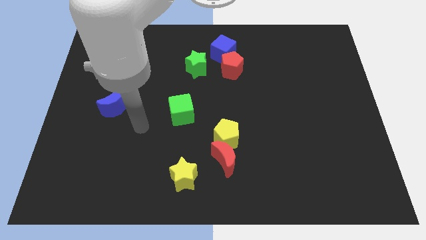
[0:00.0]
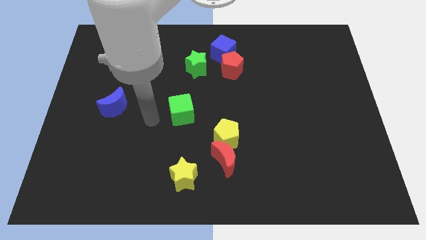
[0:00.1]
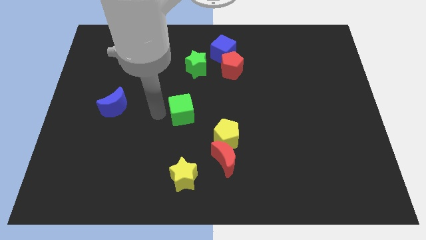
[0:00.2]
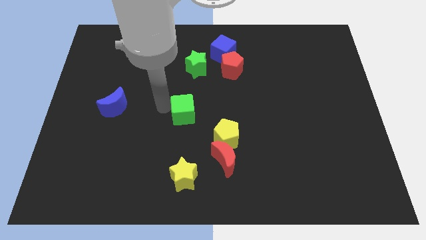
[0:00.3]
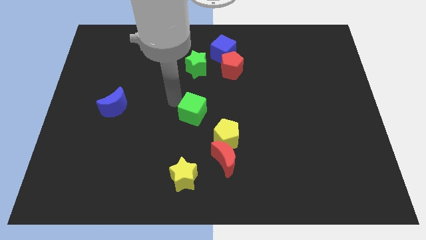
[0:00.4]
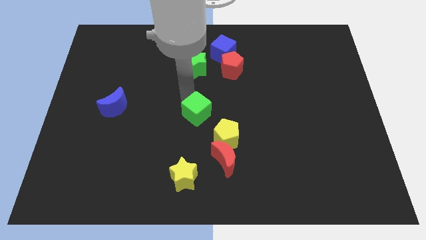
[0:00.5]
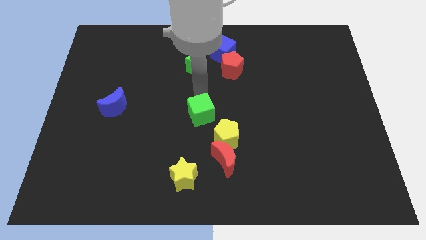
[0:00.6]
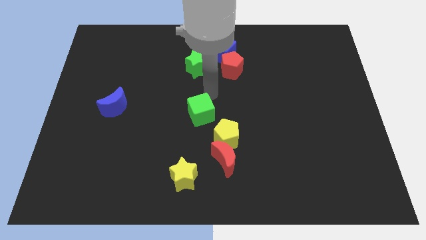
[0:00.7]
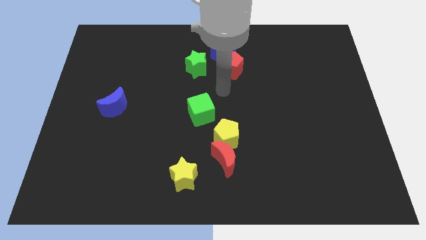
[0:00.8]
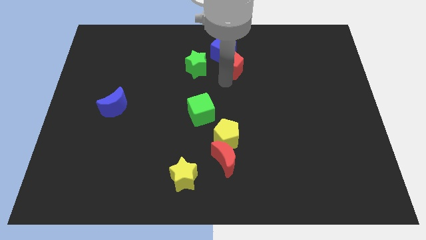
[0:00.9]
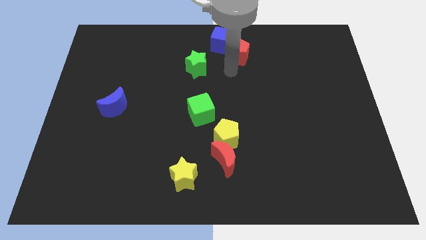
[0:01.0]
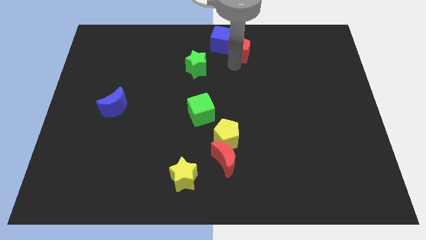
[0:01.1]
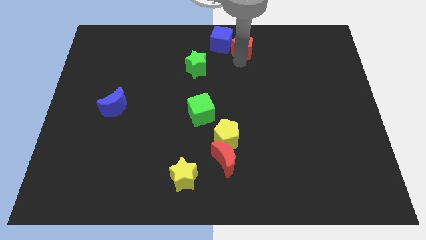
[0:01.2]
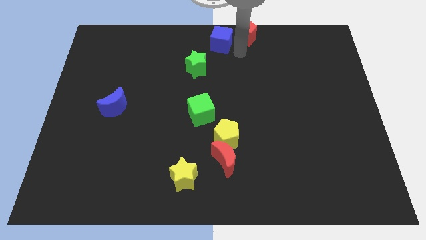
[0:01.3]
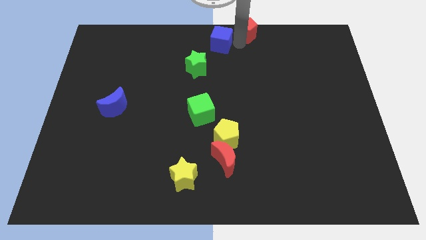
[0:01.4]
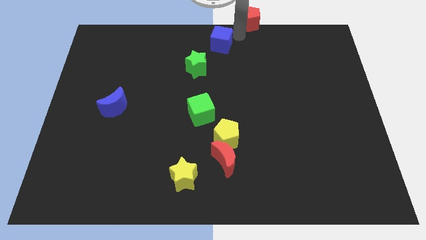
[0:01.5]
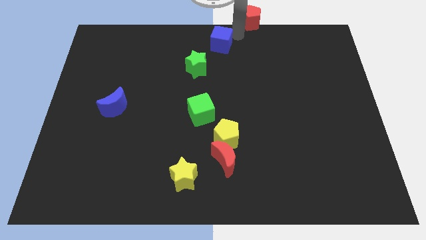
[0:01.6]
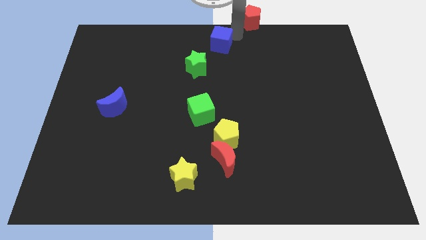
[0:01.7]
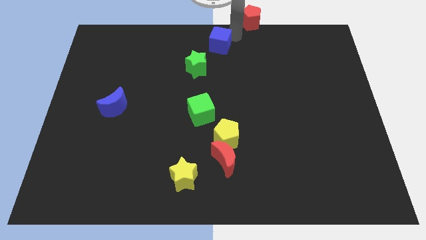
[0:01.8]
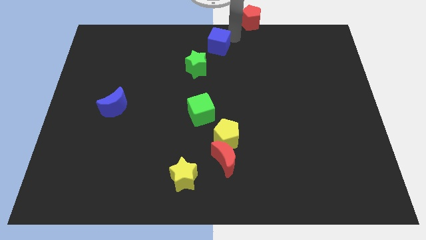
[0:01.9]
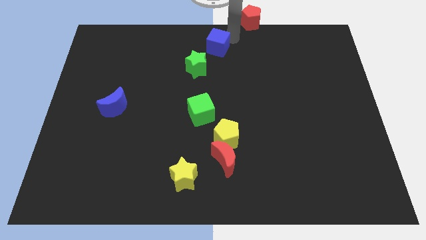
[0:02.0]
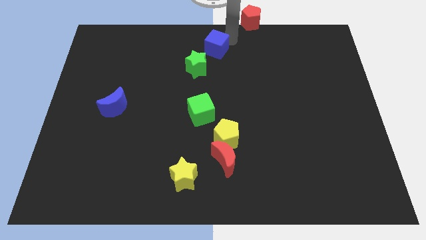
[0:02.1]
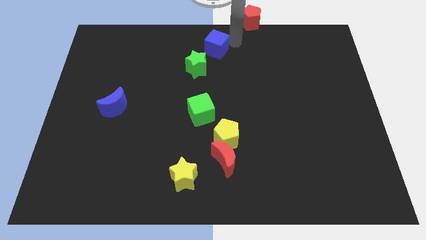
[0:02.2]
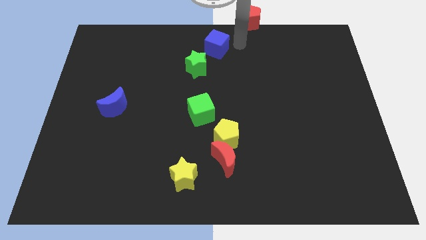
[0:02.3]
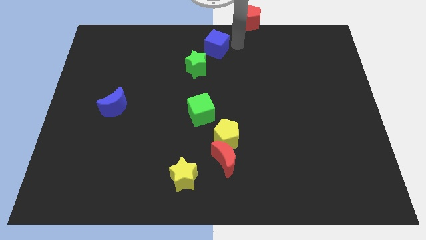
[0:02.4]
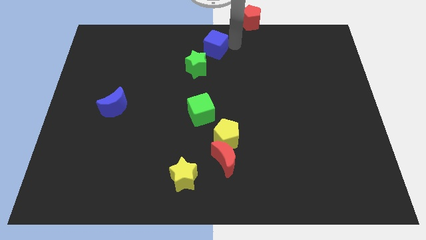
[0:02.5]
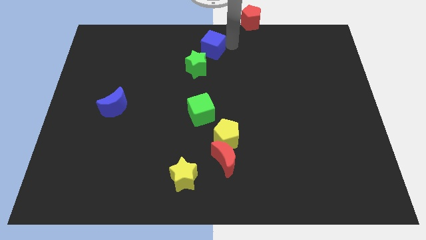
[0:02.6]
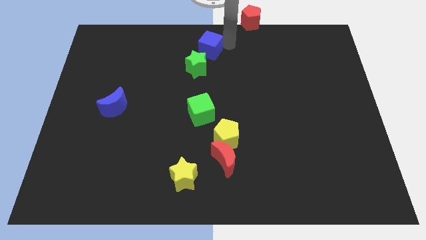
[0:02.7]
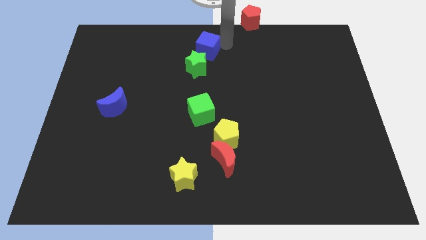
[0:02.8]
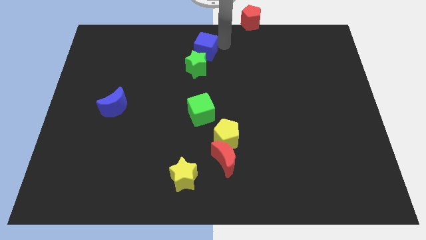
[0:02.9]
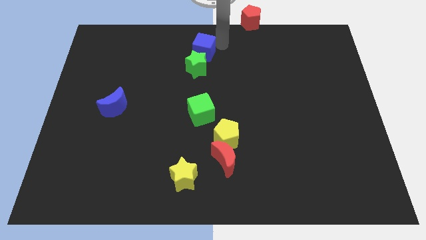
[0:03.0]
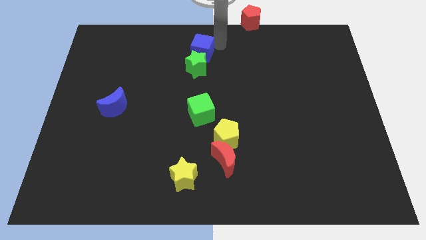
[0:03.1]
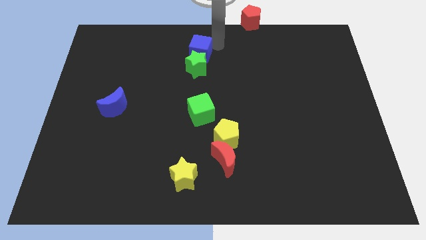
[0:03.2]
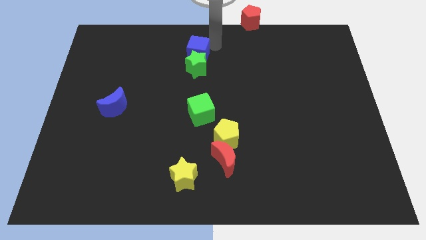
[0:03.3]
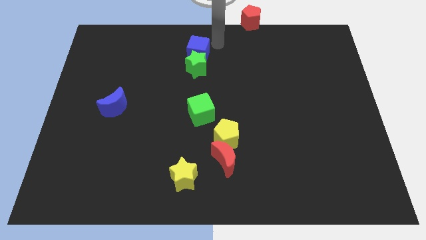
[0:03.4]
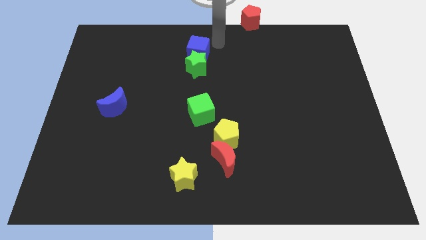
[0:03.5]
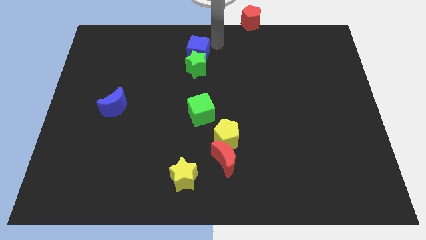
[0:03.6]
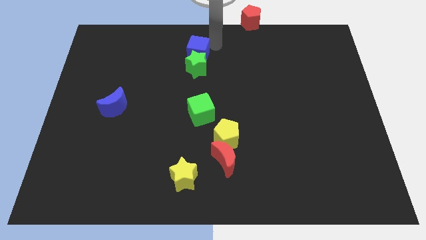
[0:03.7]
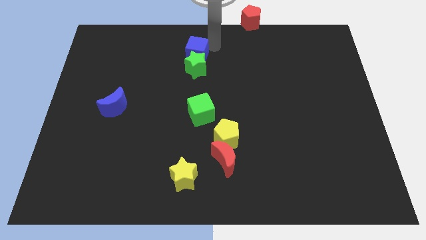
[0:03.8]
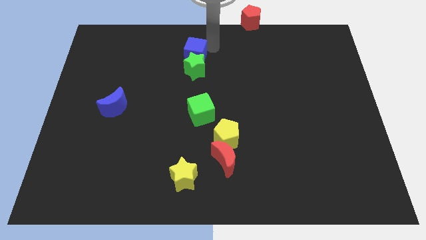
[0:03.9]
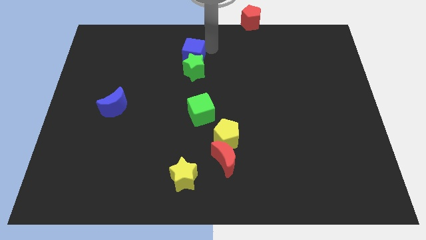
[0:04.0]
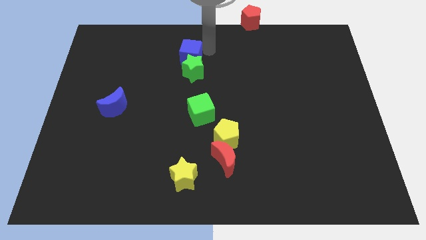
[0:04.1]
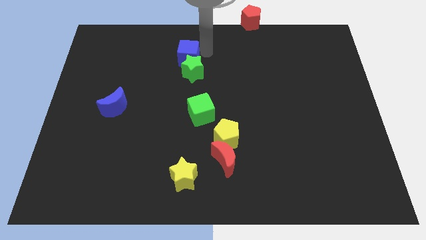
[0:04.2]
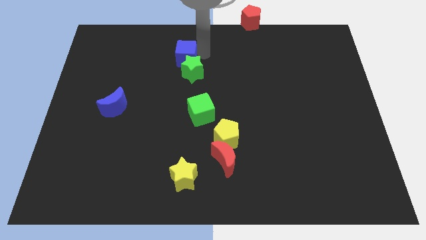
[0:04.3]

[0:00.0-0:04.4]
move the blue cube down and to the left a little bit

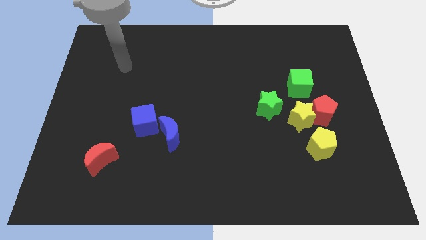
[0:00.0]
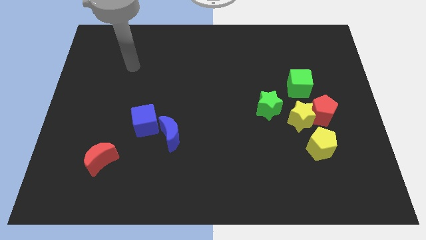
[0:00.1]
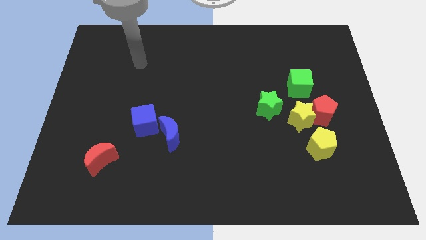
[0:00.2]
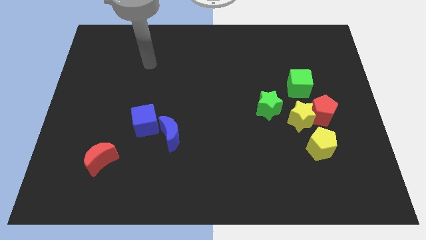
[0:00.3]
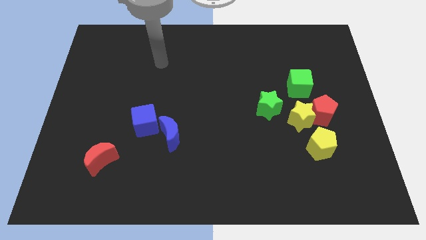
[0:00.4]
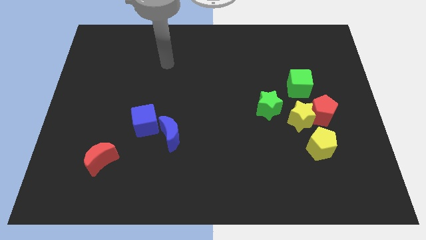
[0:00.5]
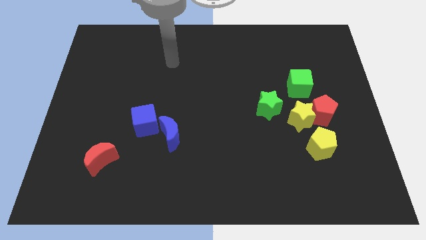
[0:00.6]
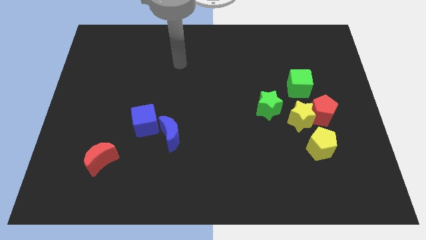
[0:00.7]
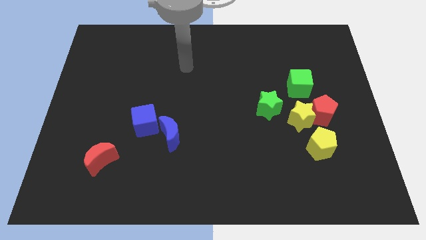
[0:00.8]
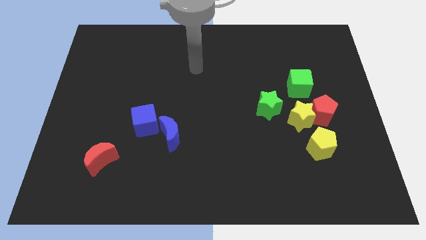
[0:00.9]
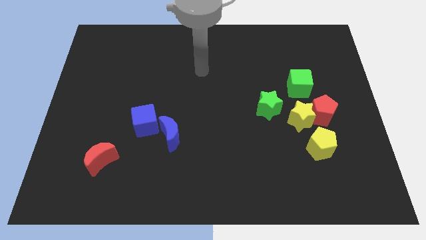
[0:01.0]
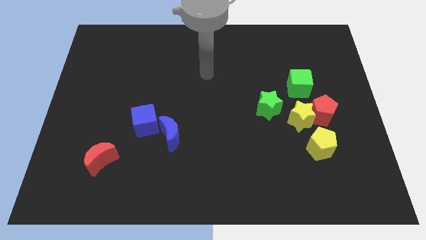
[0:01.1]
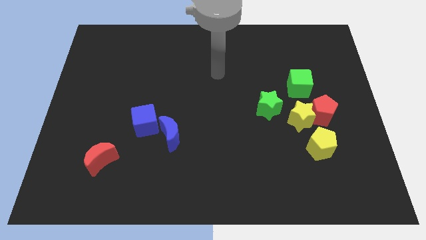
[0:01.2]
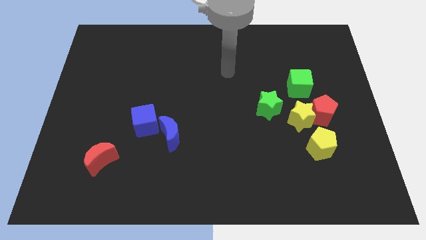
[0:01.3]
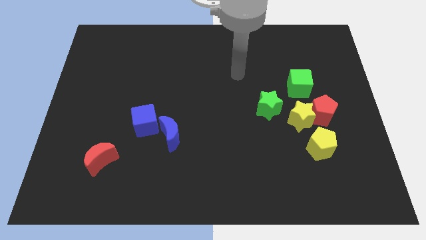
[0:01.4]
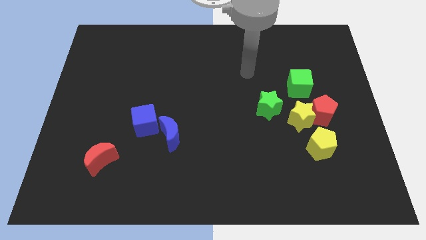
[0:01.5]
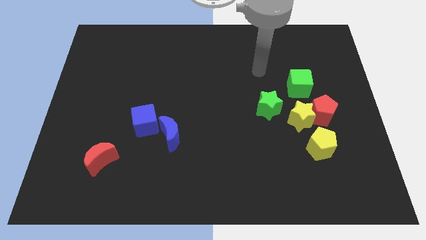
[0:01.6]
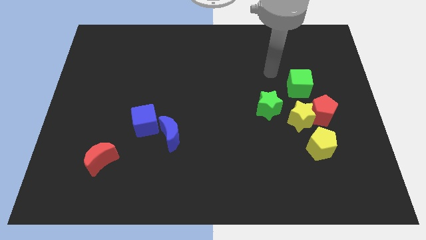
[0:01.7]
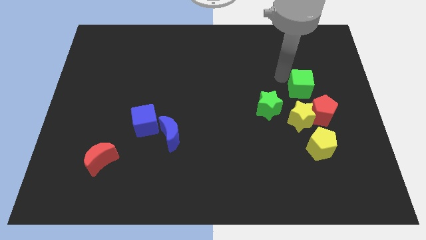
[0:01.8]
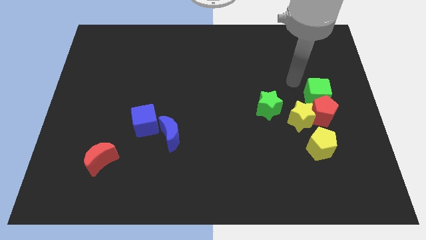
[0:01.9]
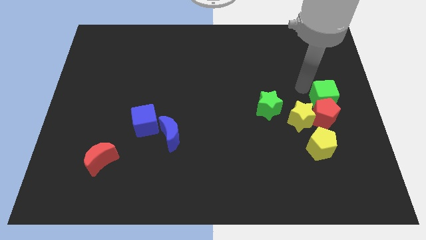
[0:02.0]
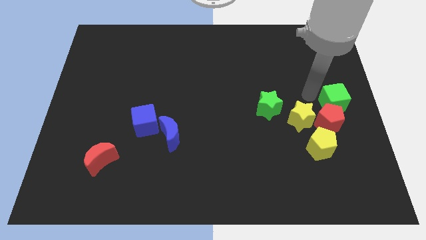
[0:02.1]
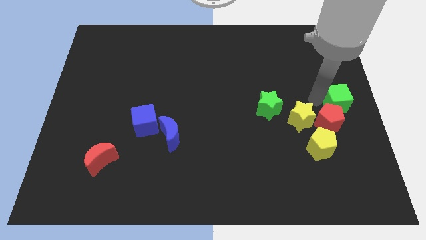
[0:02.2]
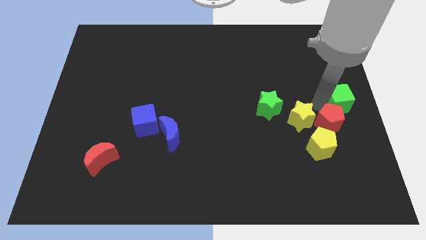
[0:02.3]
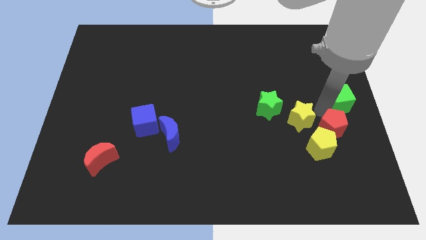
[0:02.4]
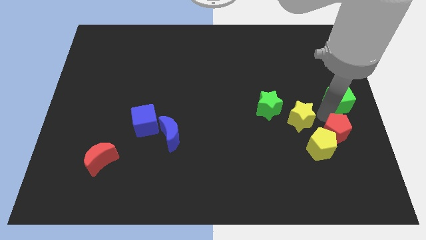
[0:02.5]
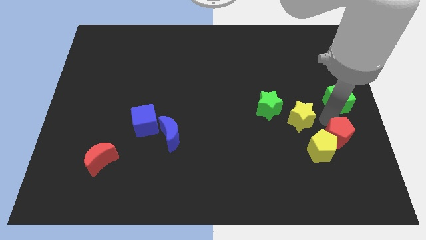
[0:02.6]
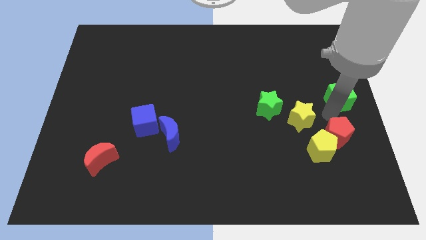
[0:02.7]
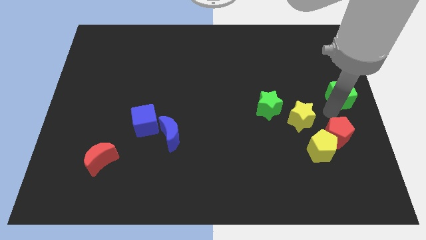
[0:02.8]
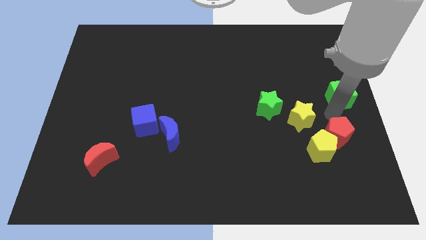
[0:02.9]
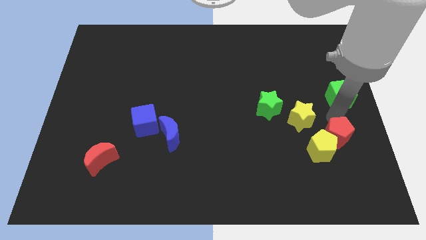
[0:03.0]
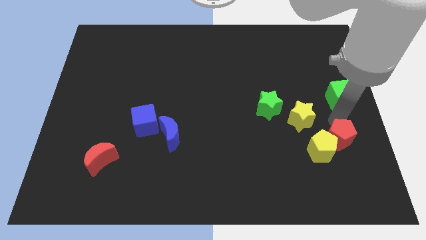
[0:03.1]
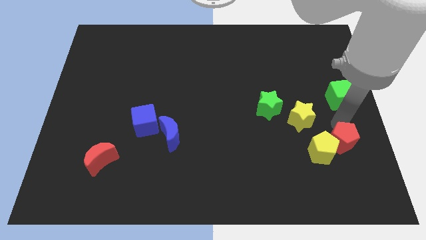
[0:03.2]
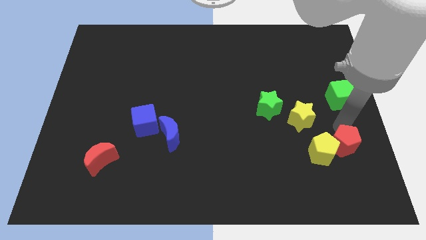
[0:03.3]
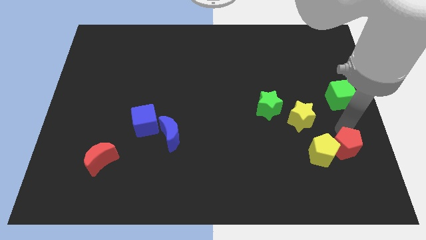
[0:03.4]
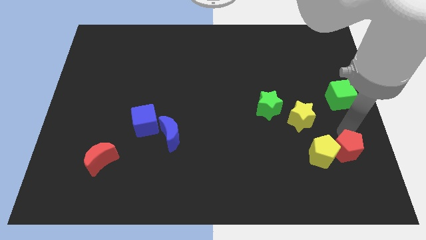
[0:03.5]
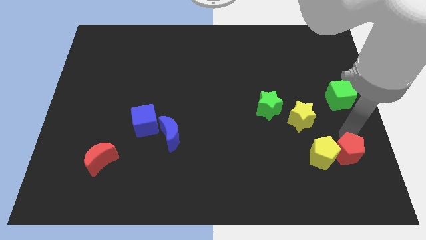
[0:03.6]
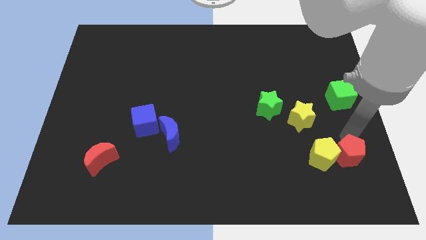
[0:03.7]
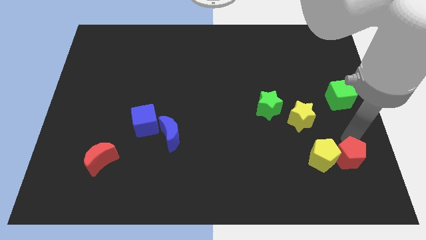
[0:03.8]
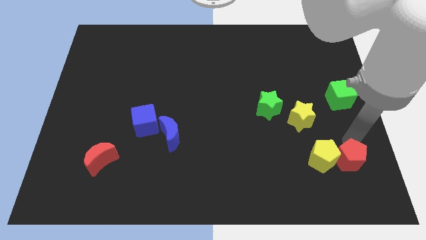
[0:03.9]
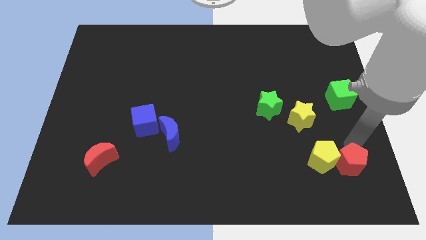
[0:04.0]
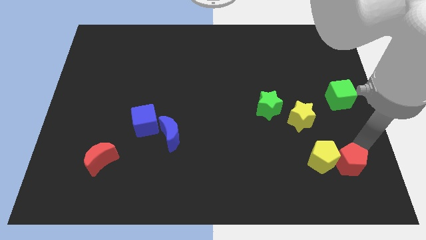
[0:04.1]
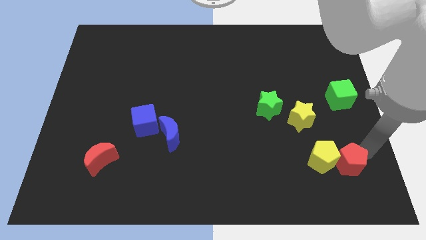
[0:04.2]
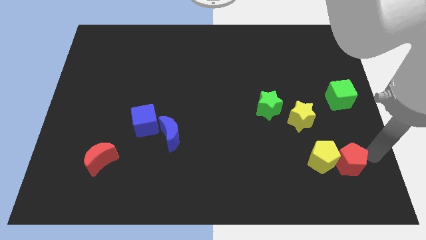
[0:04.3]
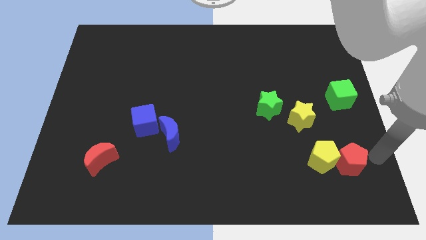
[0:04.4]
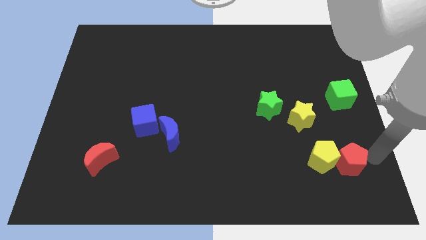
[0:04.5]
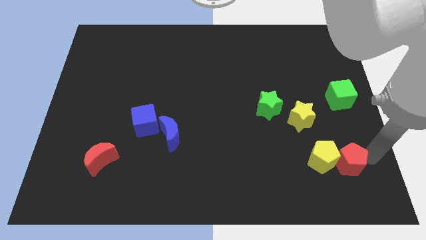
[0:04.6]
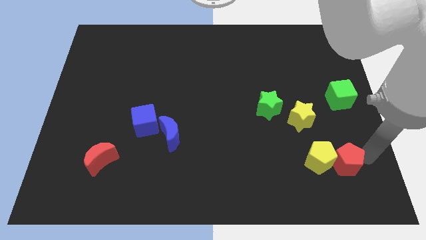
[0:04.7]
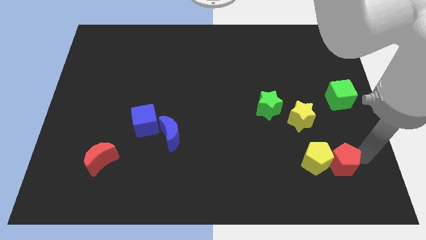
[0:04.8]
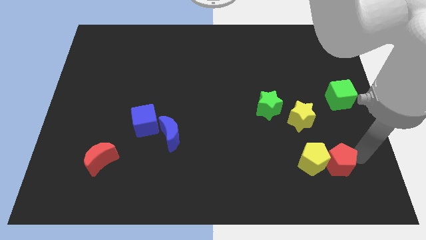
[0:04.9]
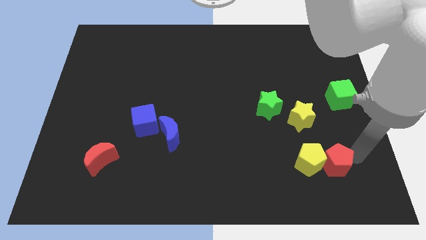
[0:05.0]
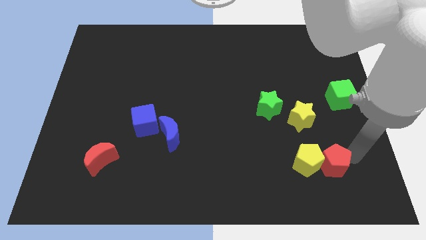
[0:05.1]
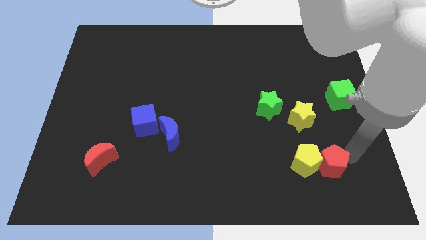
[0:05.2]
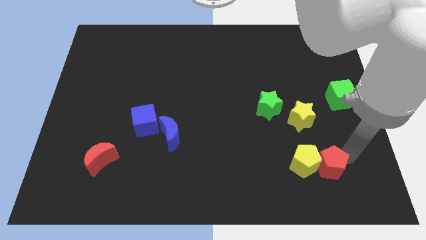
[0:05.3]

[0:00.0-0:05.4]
slightly slide the red pentagon downwards and to the left
